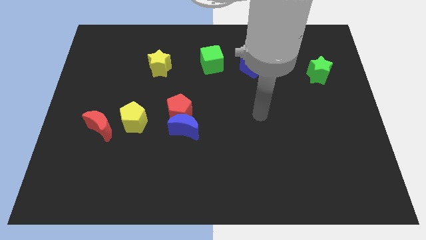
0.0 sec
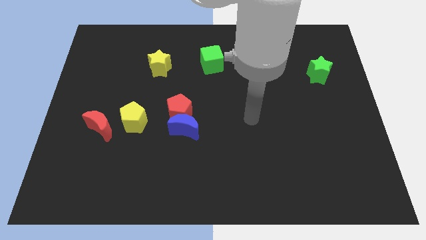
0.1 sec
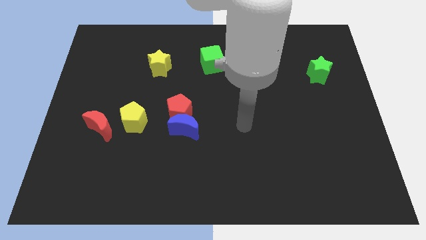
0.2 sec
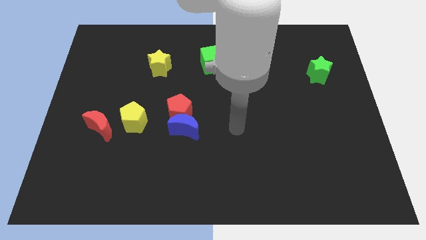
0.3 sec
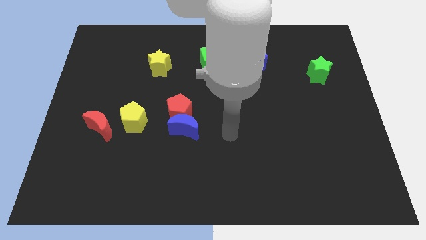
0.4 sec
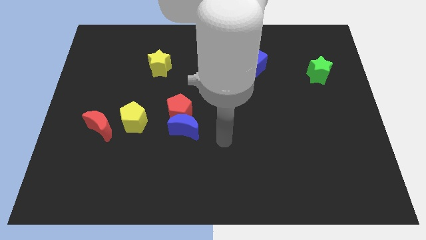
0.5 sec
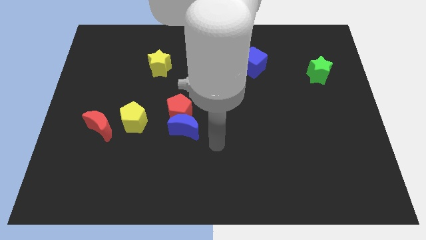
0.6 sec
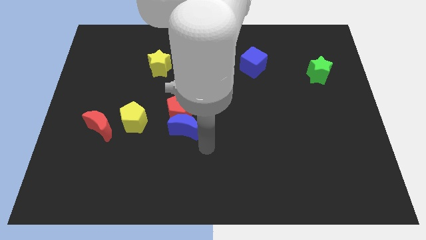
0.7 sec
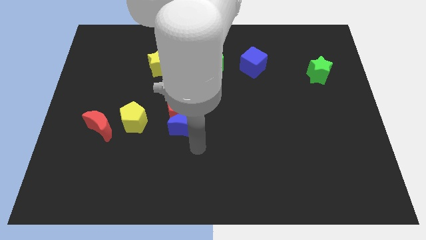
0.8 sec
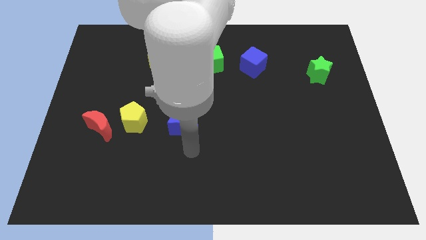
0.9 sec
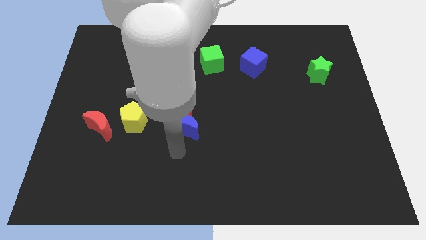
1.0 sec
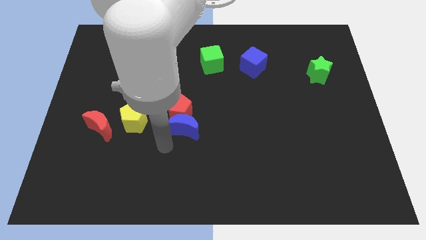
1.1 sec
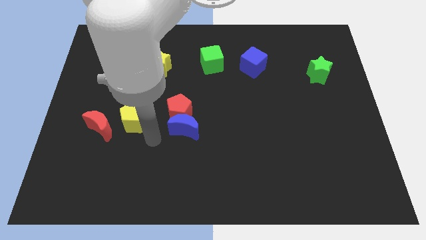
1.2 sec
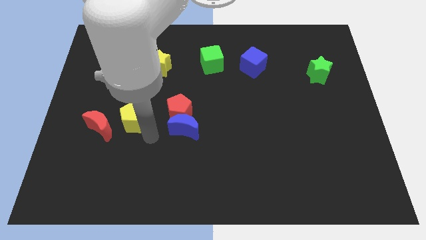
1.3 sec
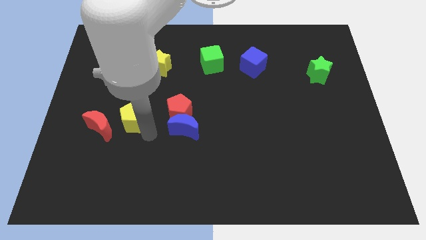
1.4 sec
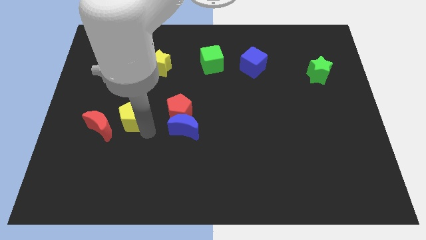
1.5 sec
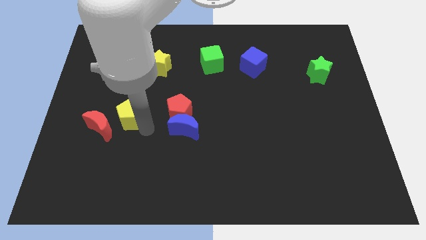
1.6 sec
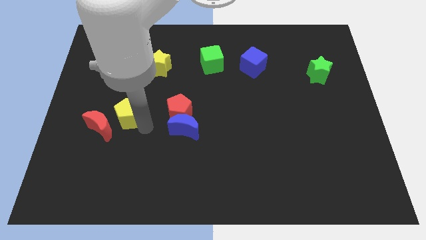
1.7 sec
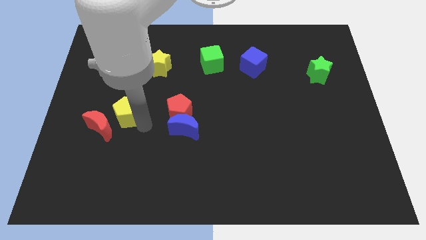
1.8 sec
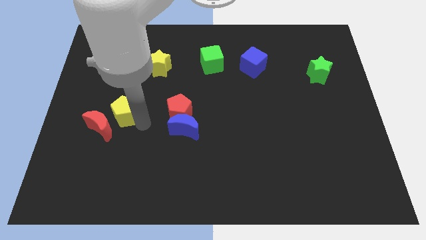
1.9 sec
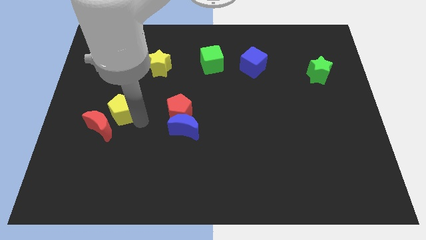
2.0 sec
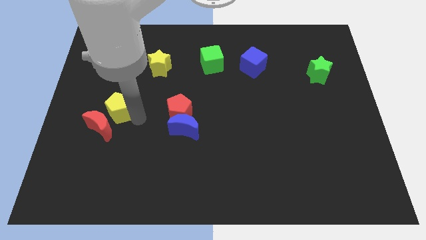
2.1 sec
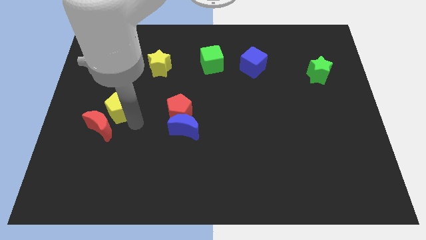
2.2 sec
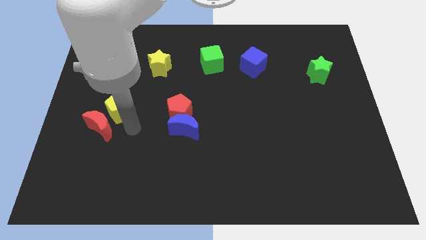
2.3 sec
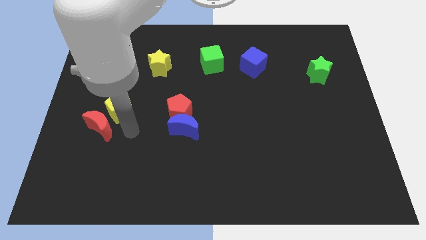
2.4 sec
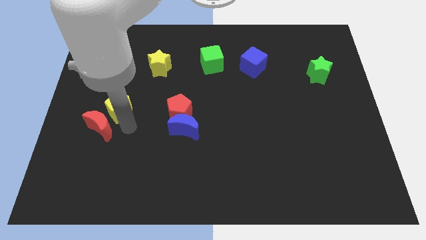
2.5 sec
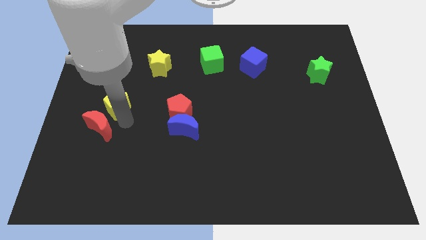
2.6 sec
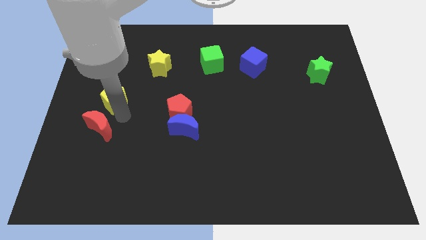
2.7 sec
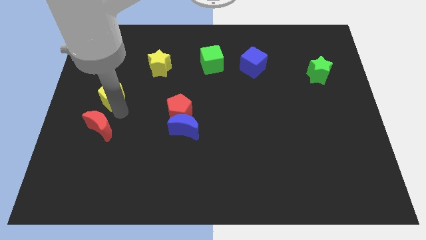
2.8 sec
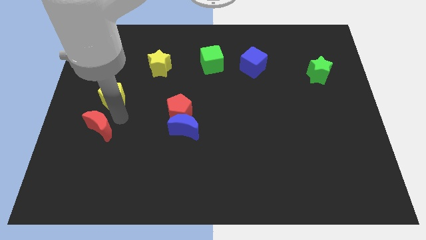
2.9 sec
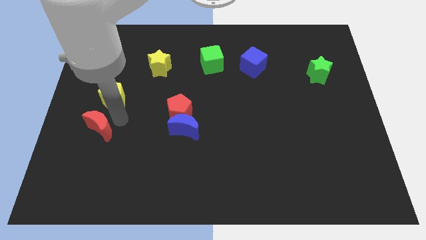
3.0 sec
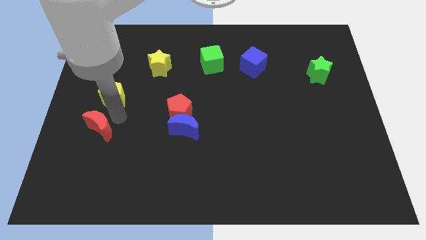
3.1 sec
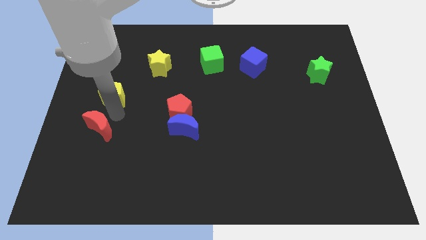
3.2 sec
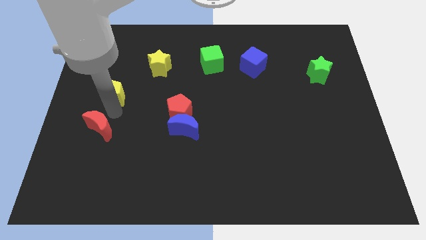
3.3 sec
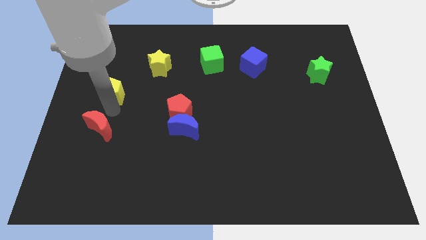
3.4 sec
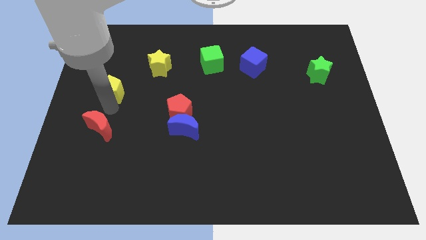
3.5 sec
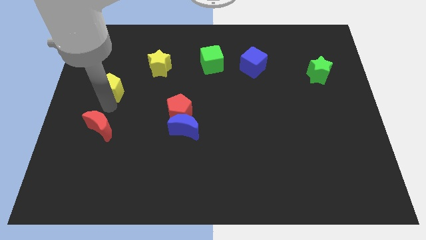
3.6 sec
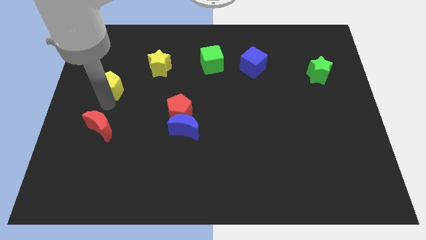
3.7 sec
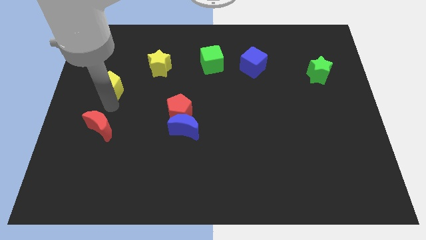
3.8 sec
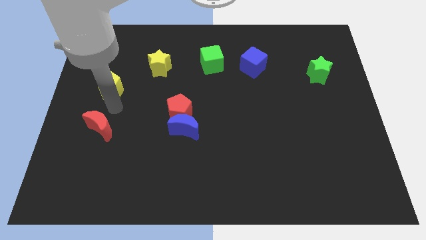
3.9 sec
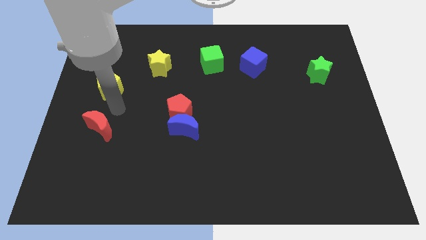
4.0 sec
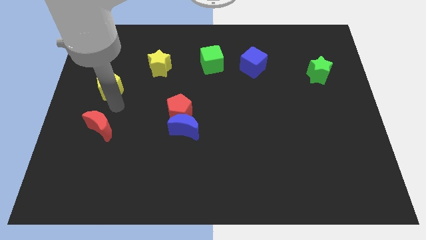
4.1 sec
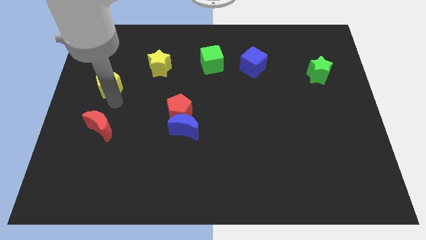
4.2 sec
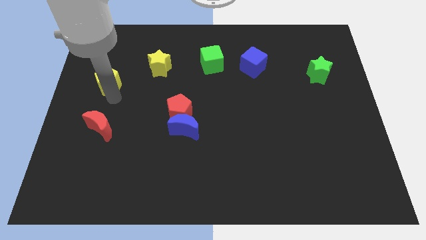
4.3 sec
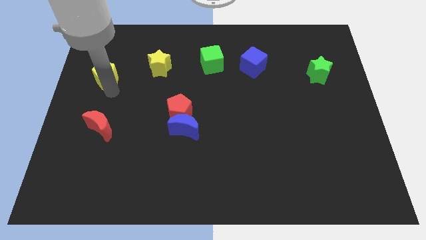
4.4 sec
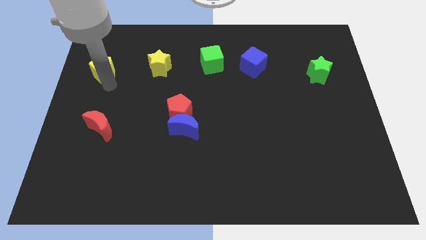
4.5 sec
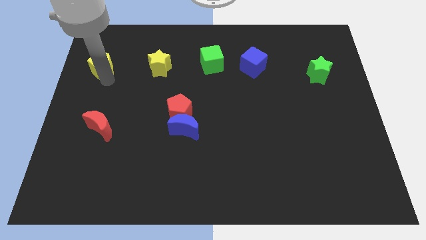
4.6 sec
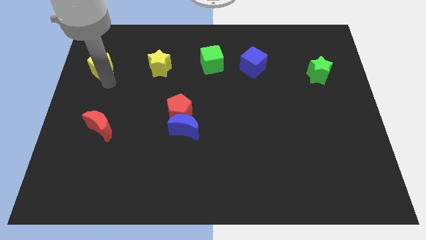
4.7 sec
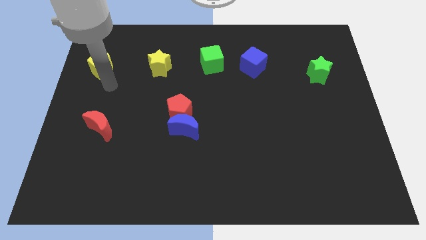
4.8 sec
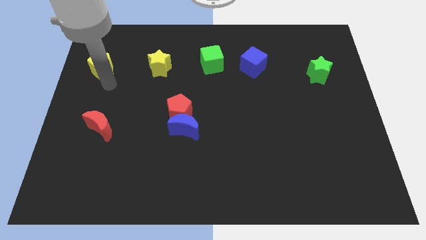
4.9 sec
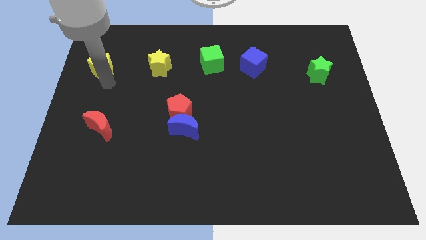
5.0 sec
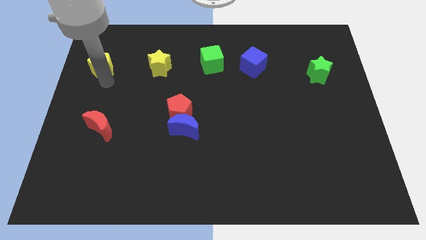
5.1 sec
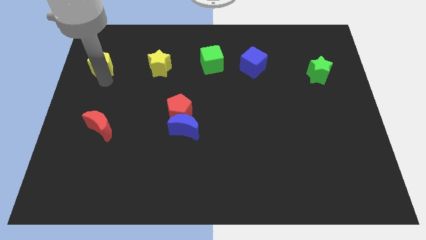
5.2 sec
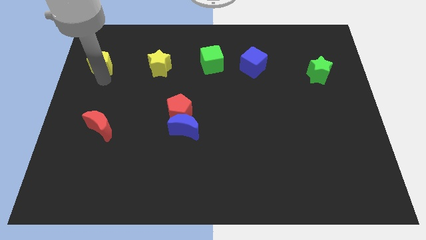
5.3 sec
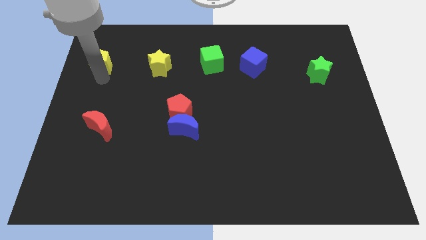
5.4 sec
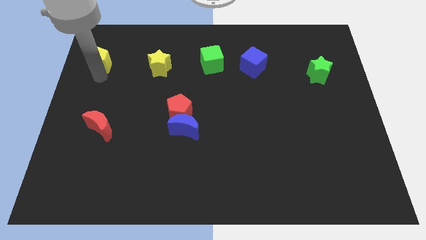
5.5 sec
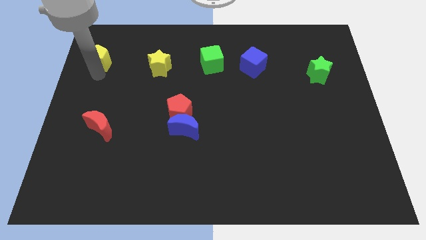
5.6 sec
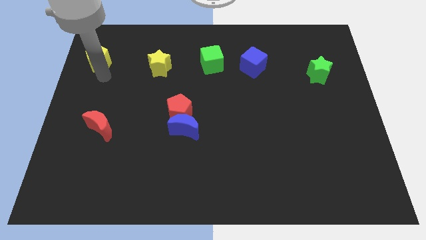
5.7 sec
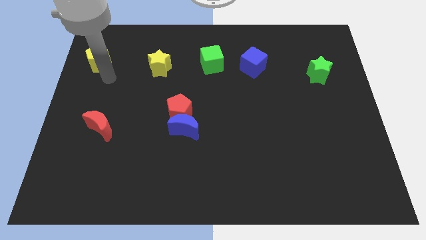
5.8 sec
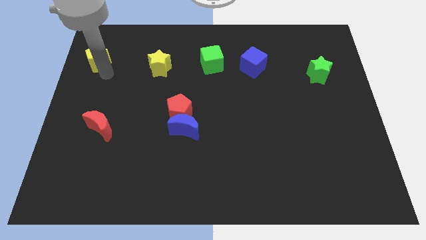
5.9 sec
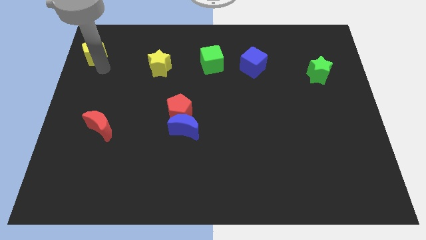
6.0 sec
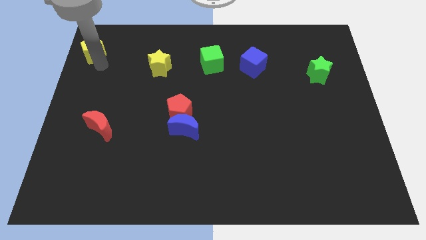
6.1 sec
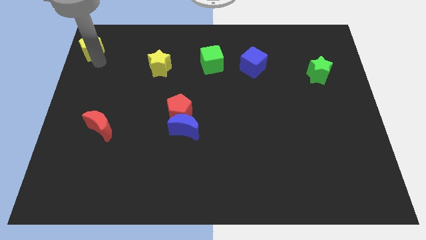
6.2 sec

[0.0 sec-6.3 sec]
put the yellow pentagon to the top left

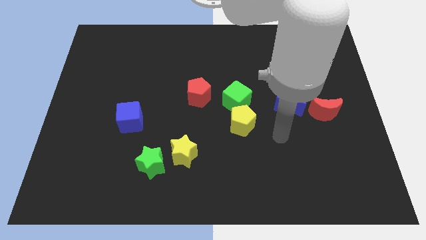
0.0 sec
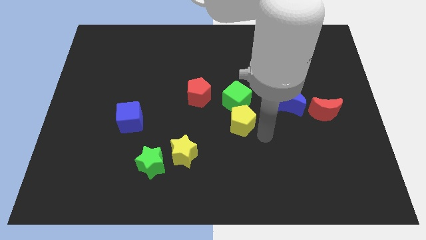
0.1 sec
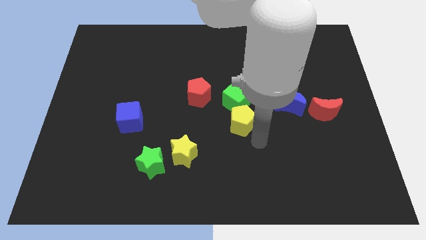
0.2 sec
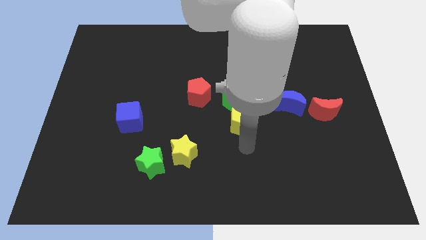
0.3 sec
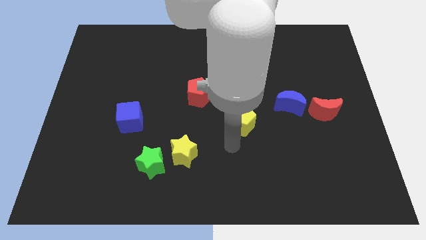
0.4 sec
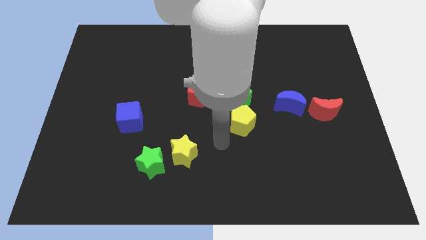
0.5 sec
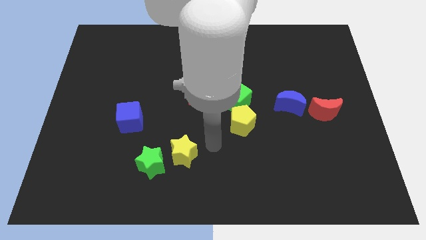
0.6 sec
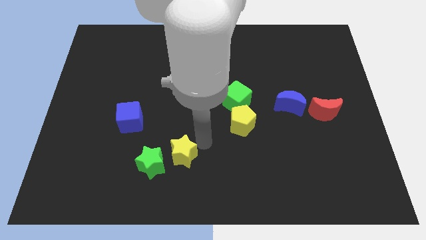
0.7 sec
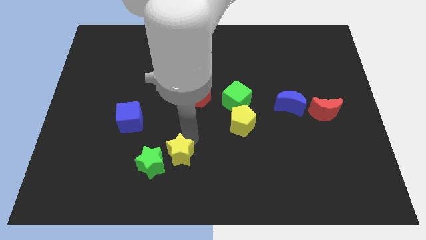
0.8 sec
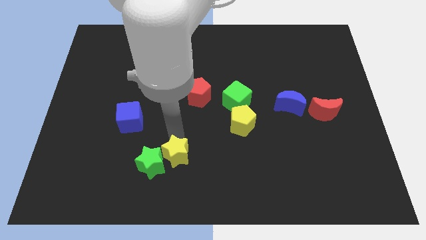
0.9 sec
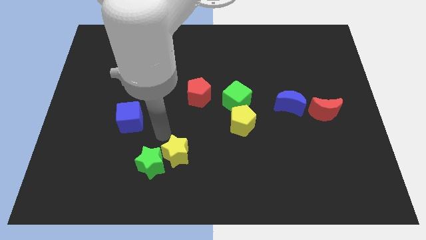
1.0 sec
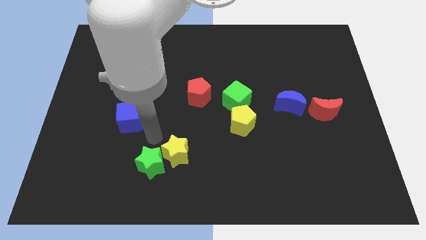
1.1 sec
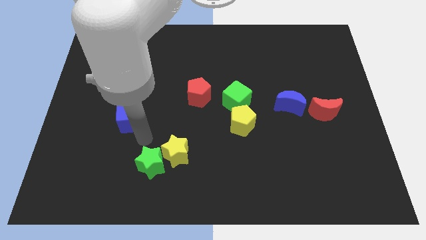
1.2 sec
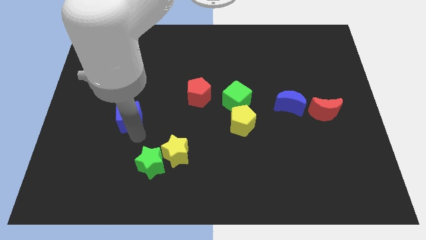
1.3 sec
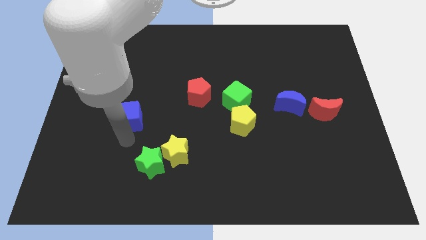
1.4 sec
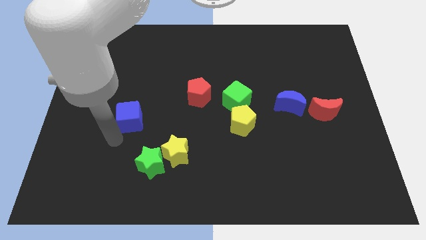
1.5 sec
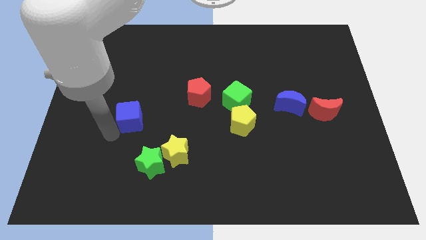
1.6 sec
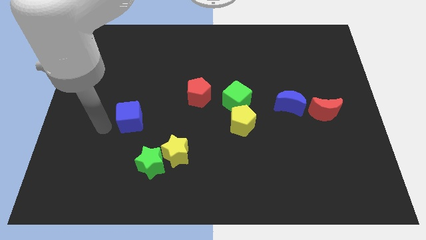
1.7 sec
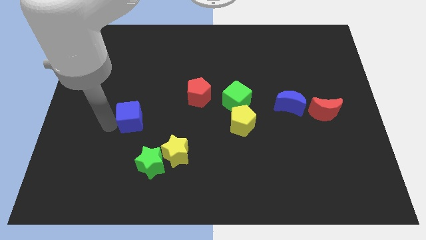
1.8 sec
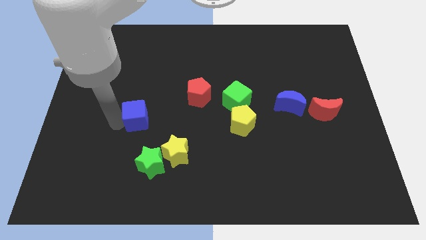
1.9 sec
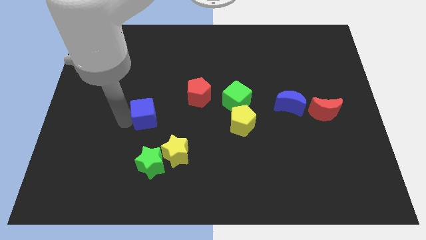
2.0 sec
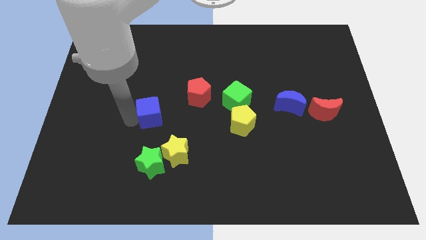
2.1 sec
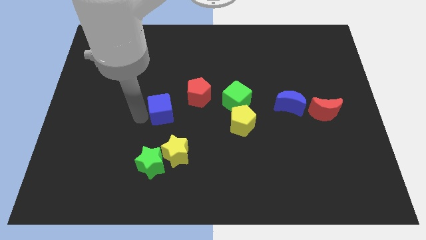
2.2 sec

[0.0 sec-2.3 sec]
move the blue cube to the center of the board
